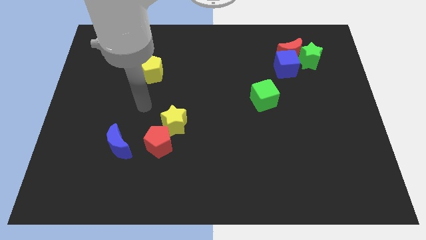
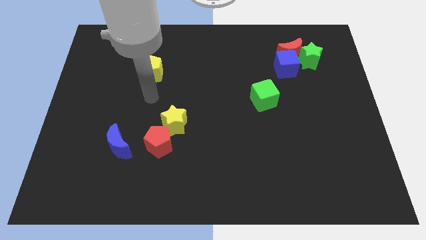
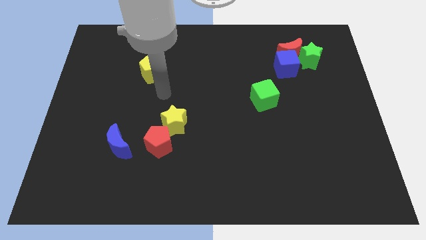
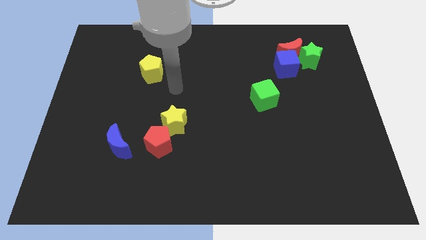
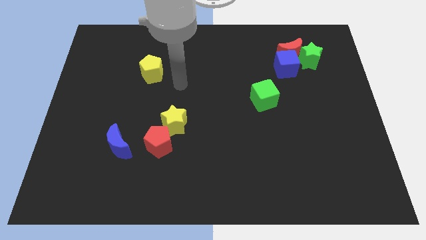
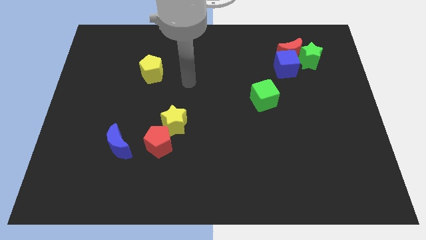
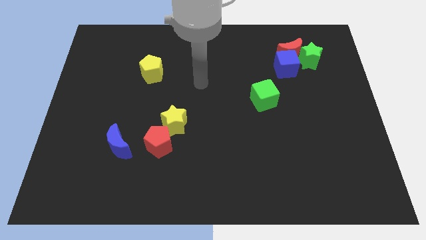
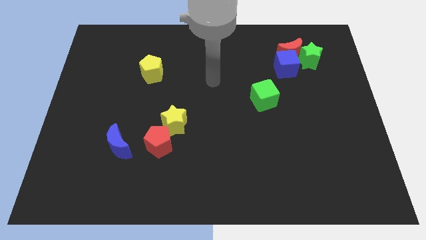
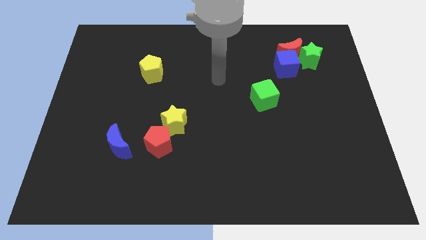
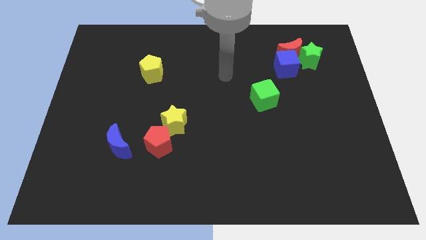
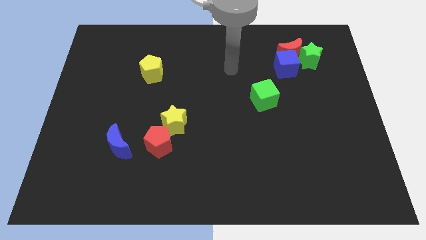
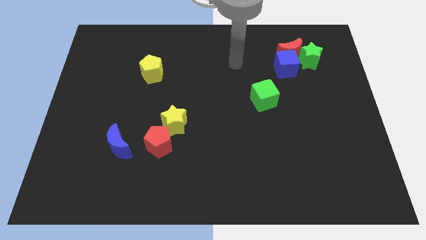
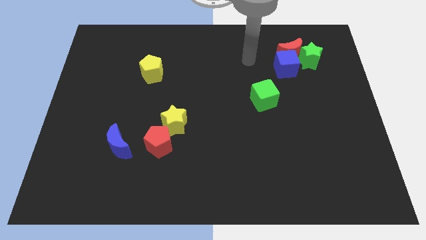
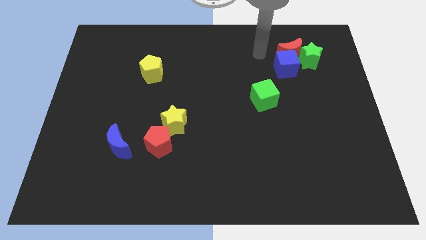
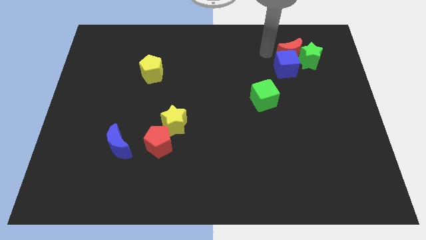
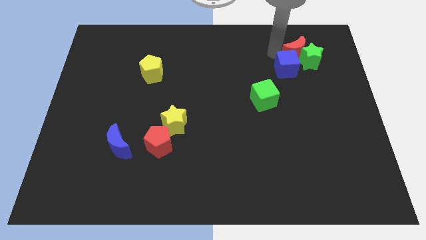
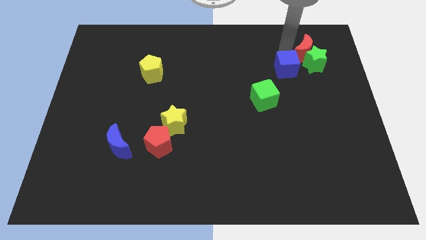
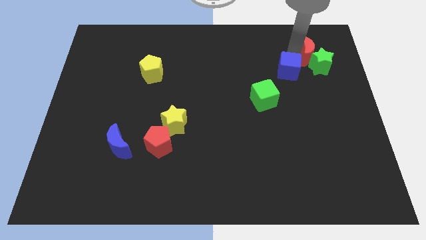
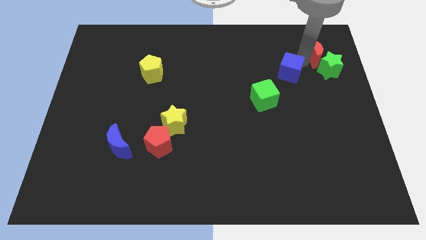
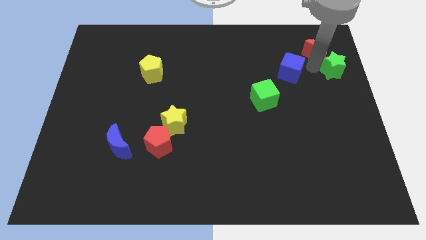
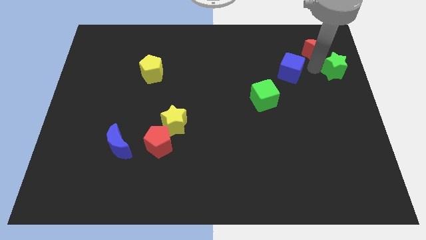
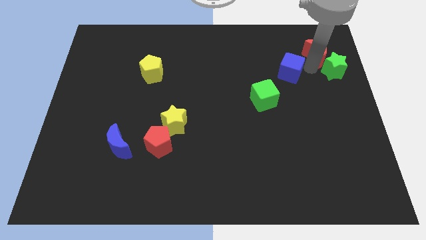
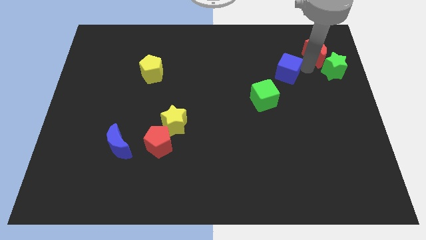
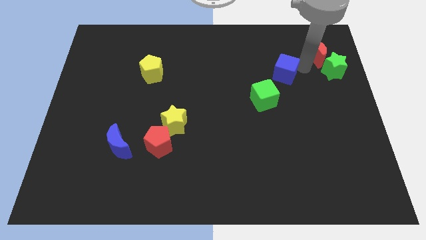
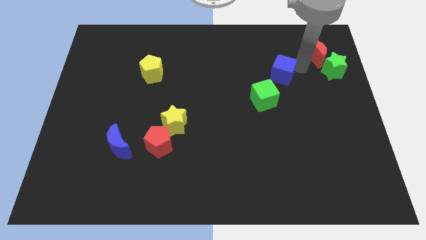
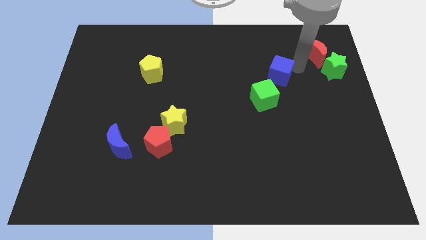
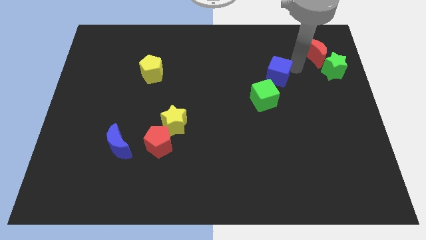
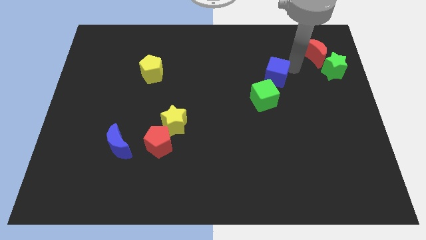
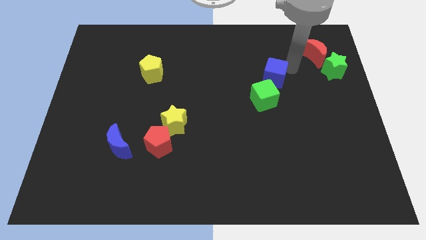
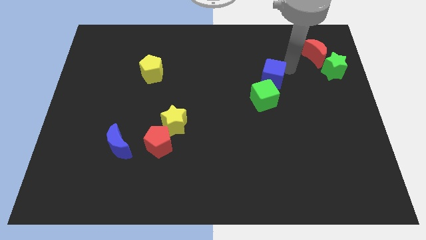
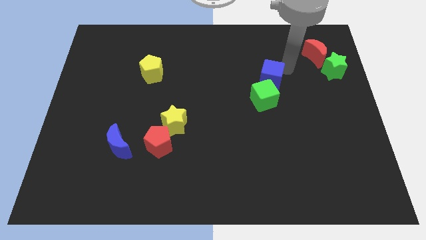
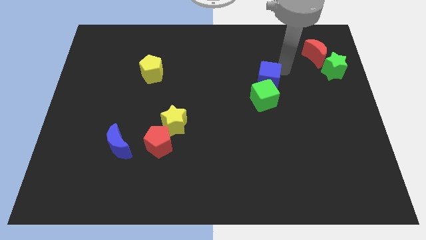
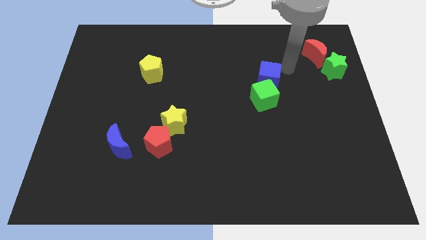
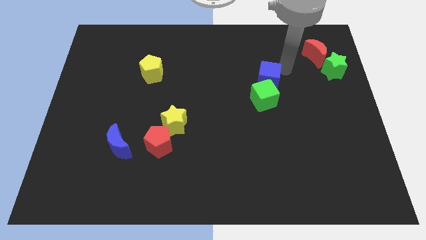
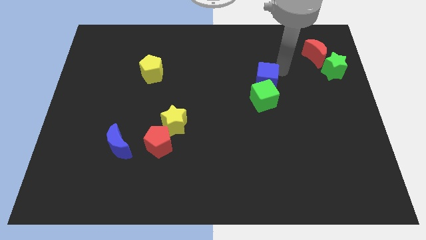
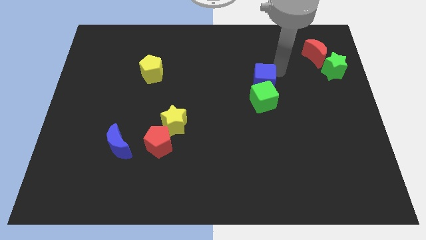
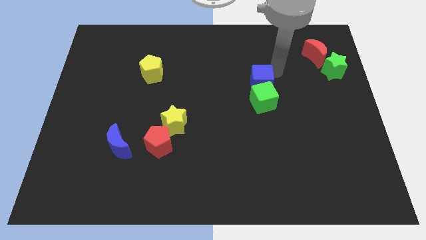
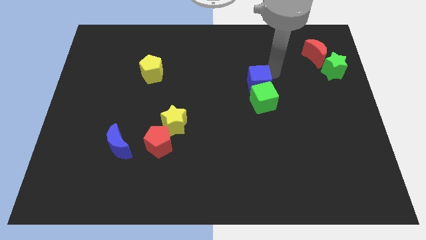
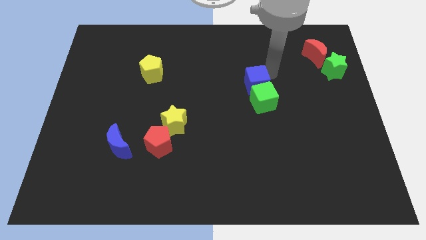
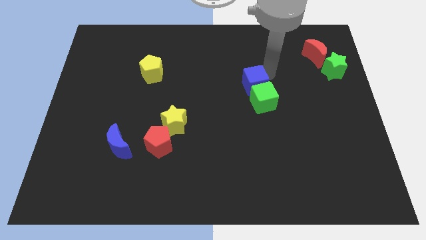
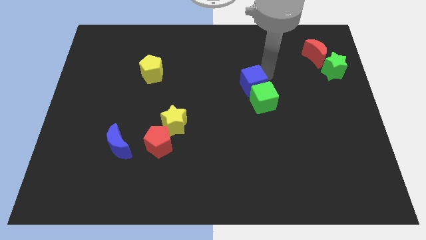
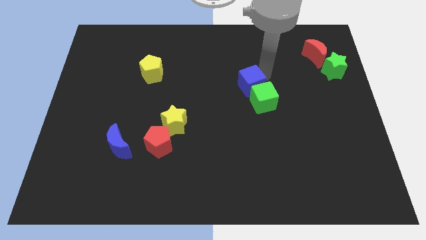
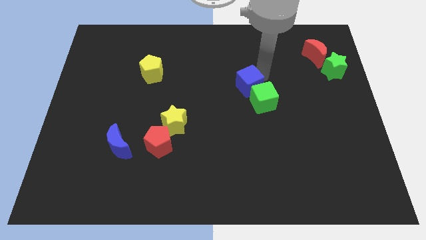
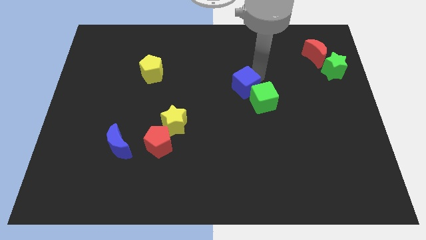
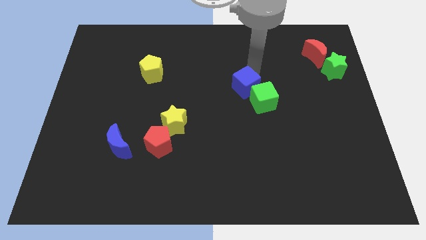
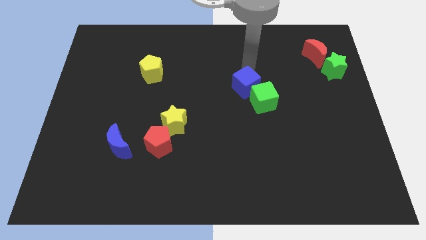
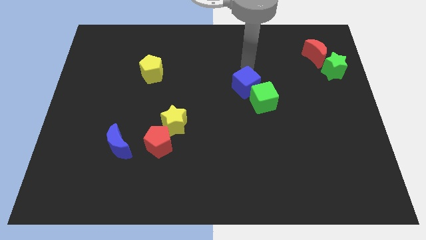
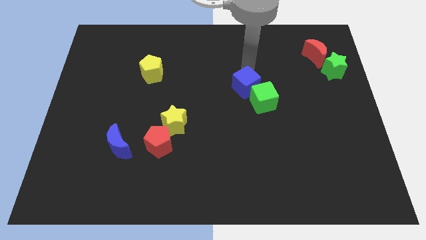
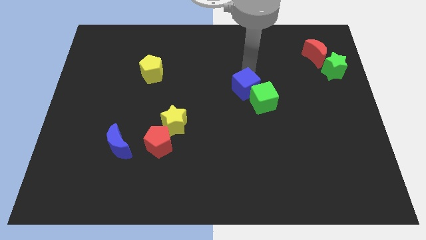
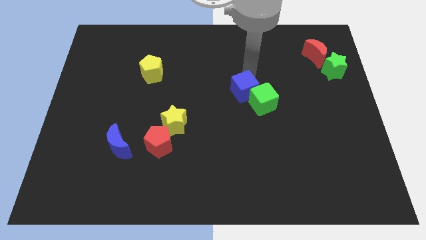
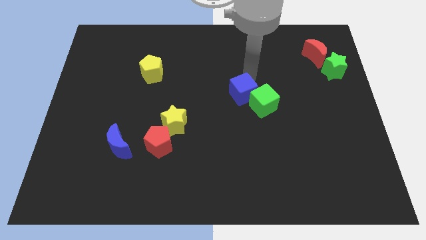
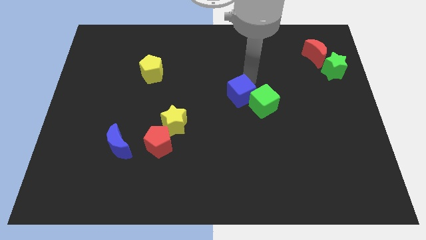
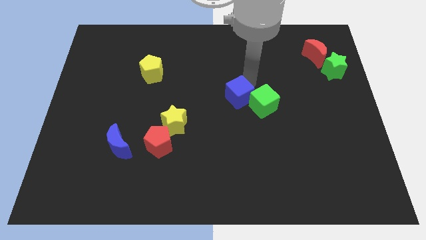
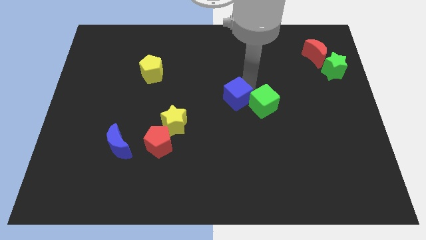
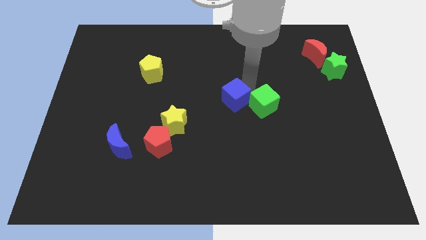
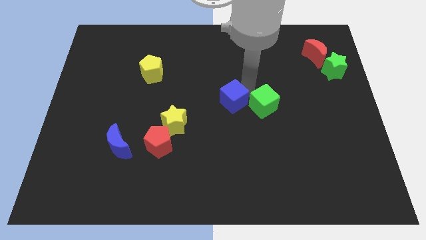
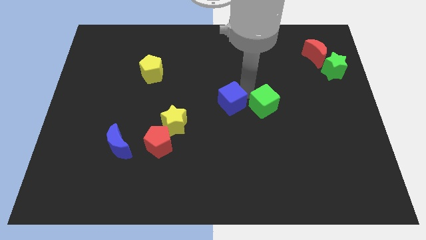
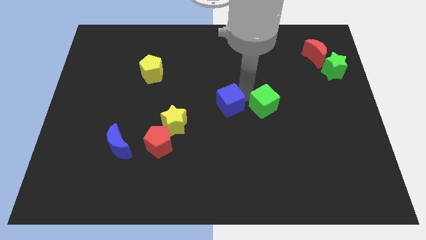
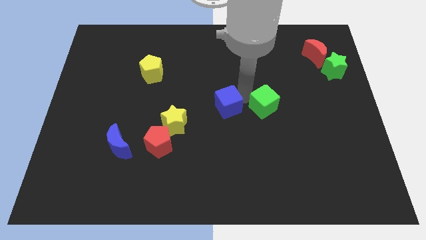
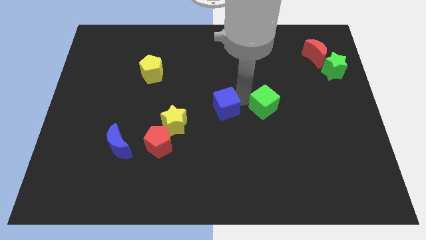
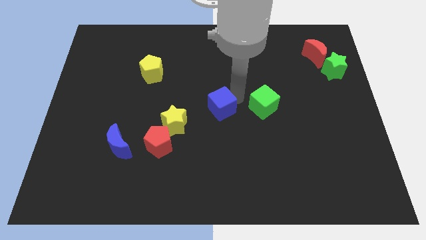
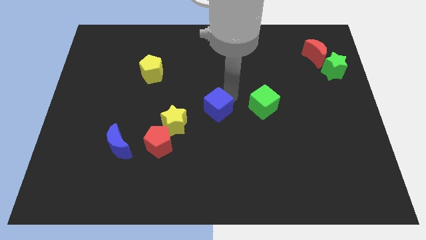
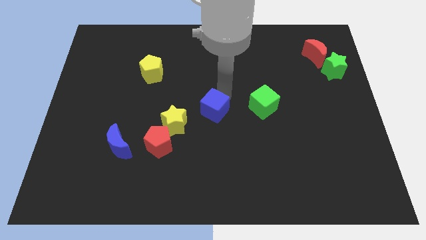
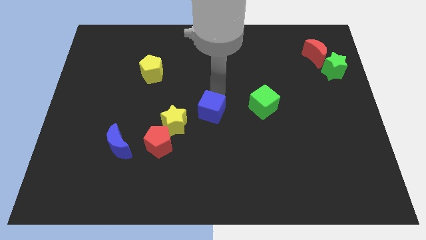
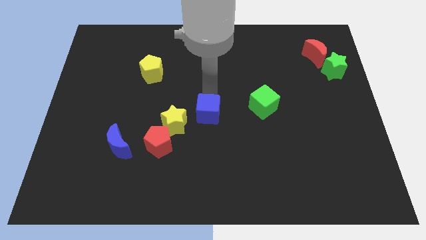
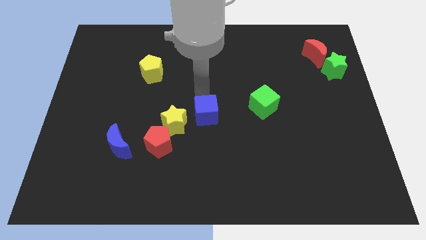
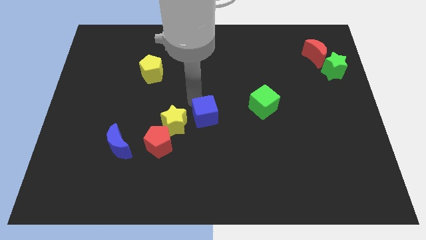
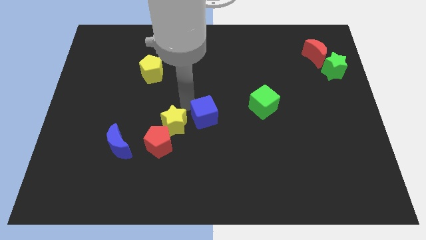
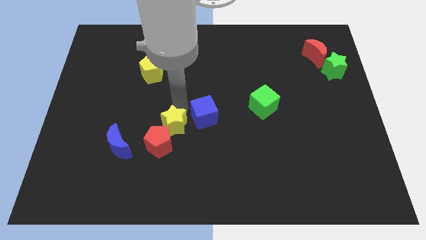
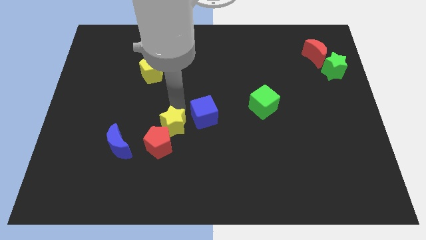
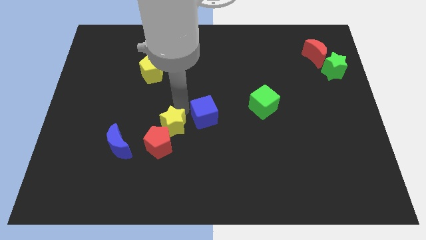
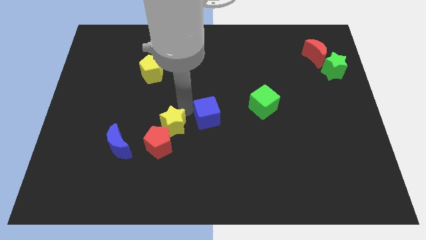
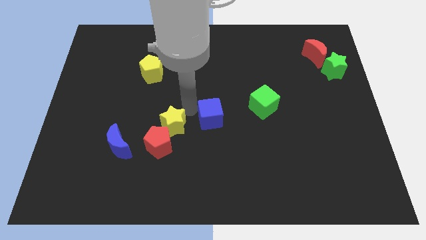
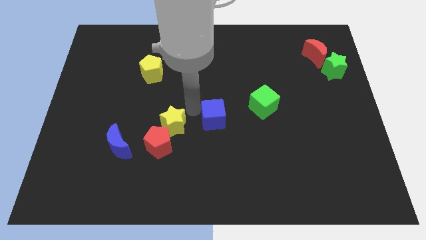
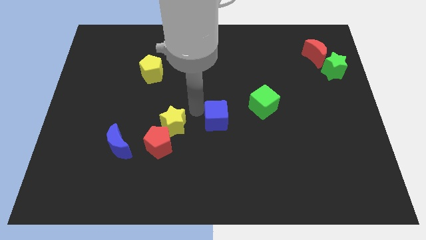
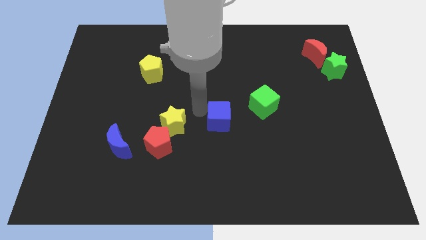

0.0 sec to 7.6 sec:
push the blue cube to the bottom left of the green cube

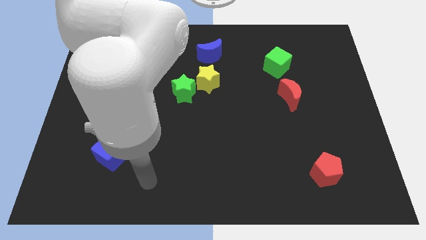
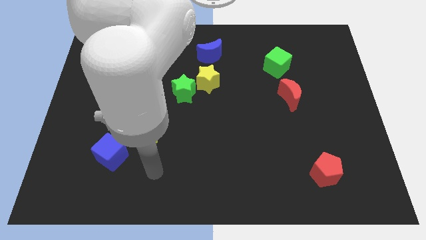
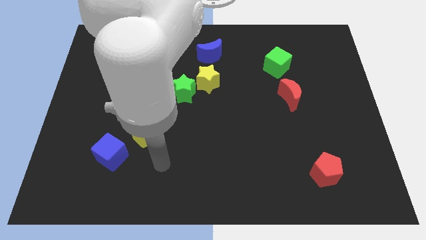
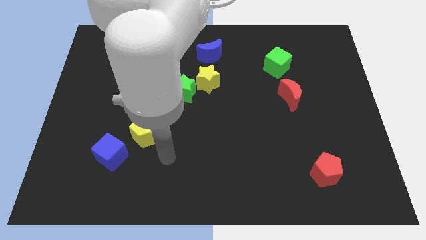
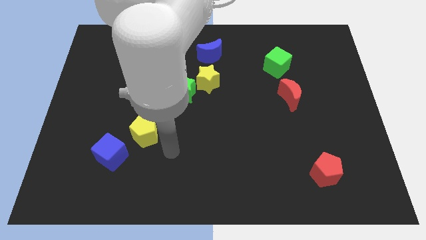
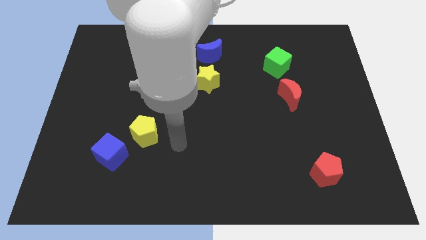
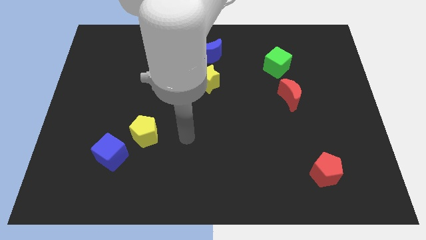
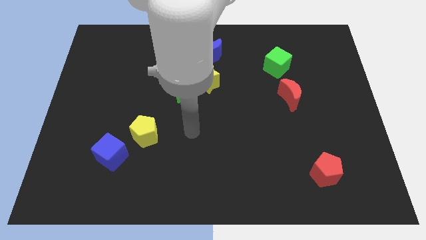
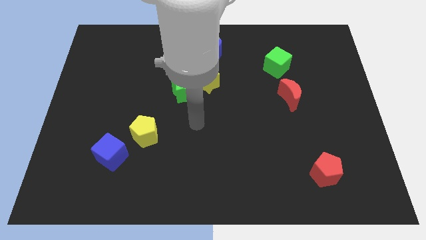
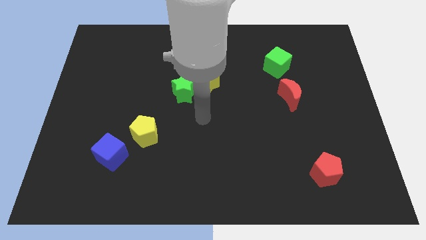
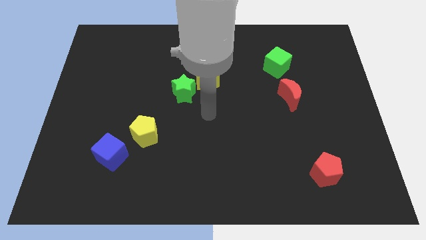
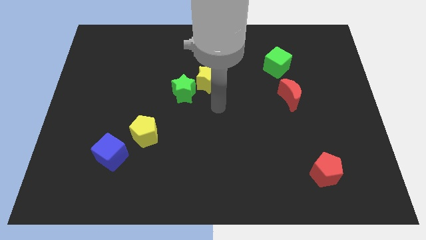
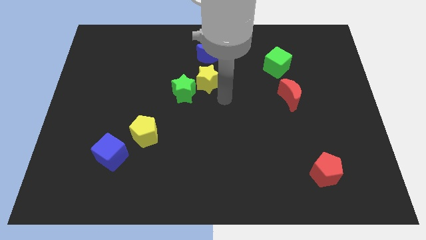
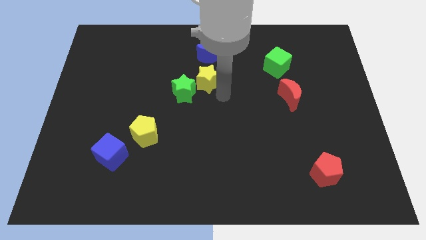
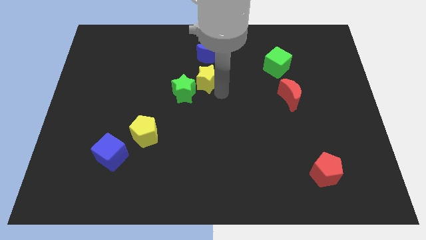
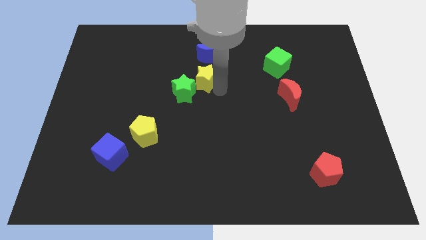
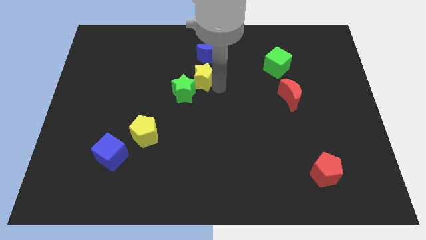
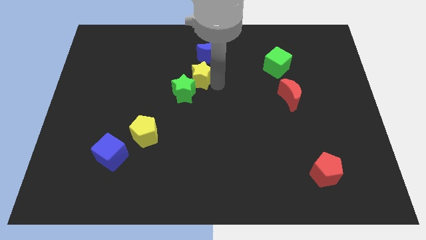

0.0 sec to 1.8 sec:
push the yellow star to the top side of the green star
